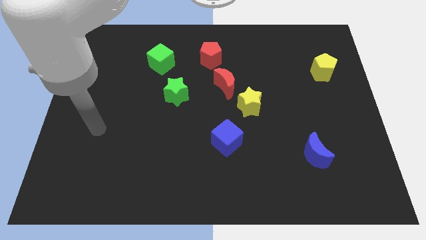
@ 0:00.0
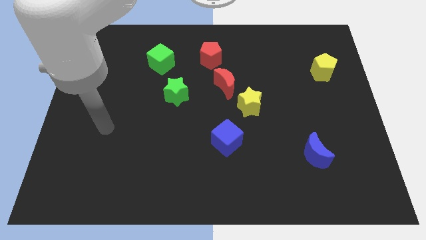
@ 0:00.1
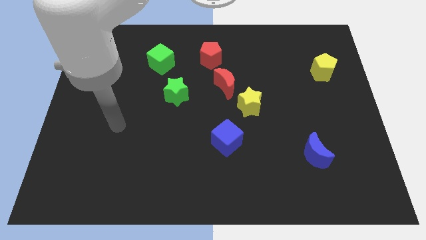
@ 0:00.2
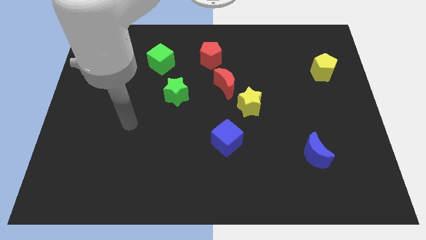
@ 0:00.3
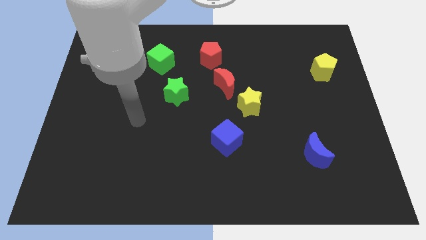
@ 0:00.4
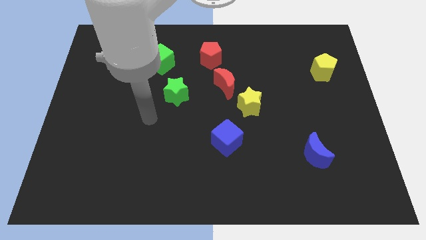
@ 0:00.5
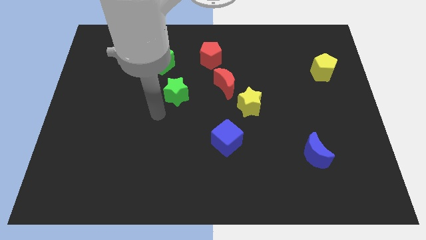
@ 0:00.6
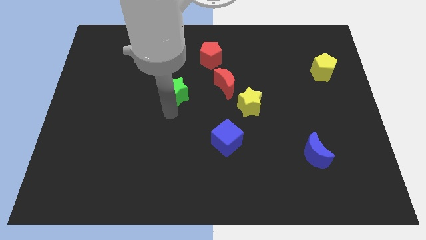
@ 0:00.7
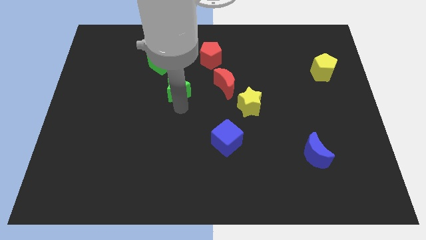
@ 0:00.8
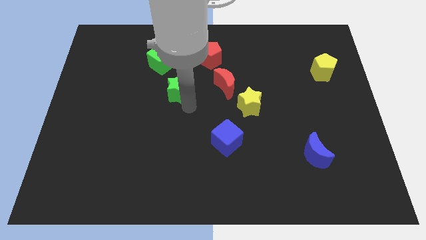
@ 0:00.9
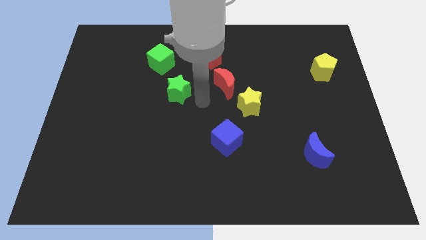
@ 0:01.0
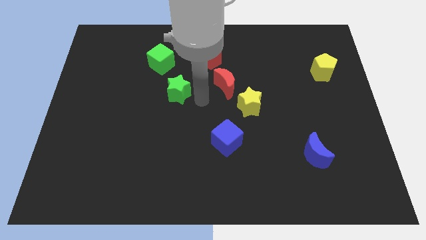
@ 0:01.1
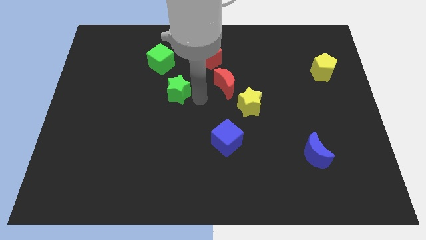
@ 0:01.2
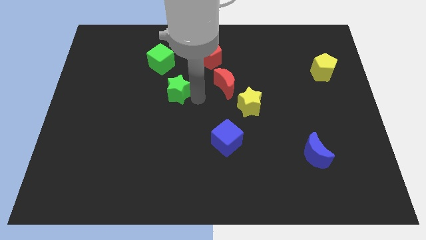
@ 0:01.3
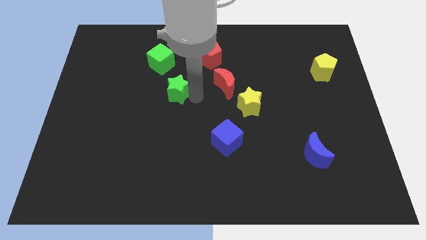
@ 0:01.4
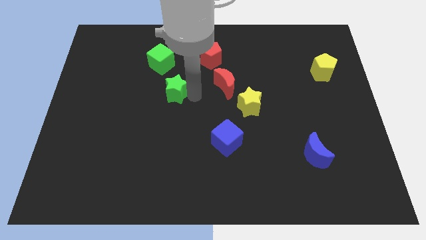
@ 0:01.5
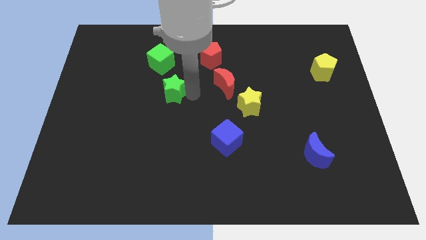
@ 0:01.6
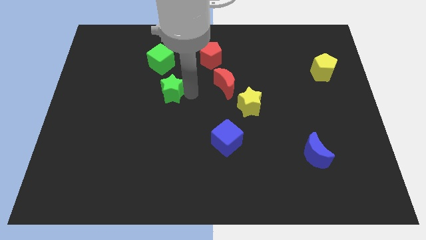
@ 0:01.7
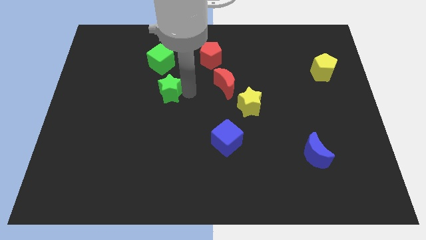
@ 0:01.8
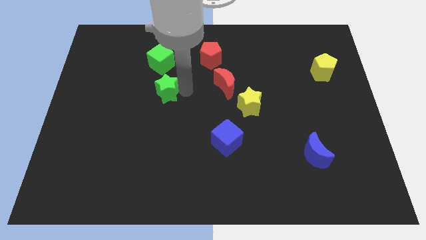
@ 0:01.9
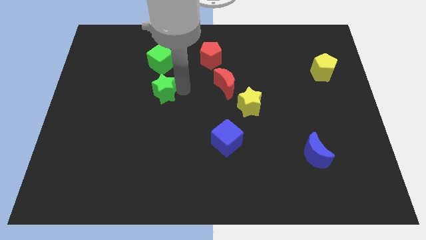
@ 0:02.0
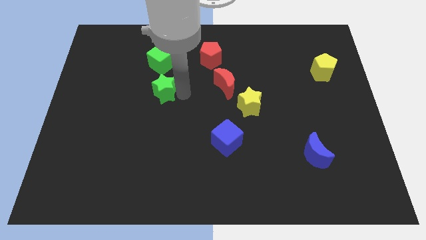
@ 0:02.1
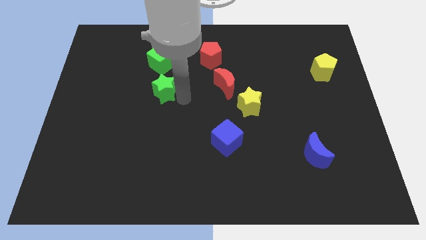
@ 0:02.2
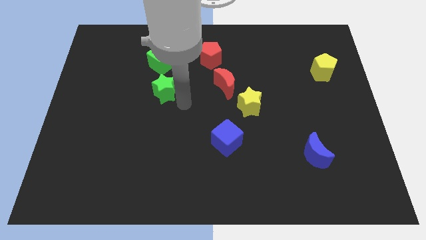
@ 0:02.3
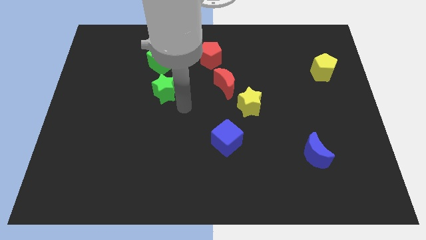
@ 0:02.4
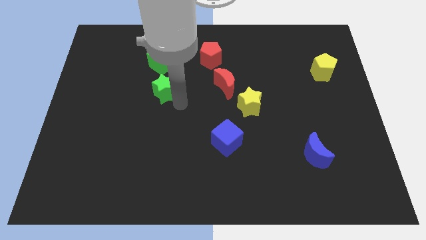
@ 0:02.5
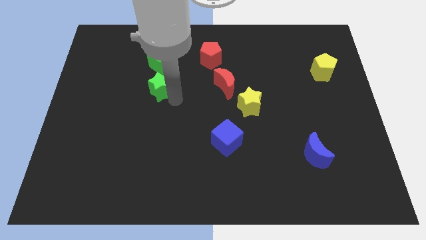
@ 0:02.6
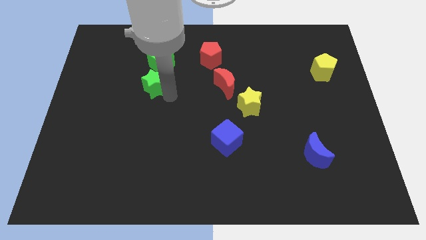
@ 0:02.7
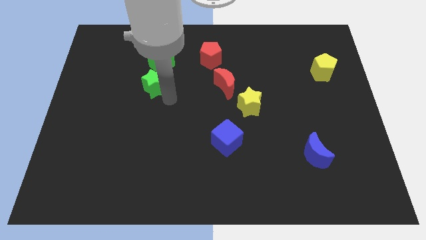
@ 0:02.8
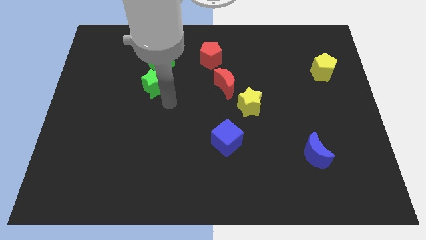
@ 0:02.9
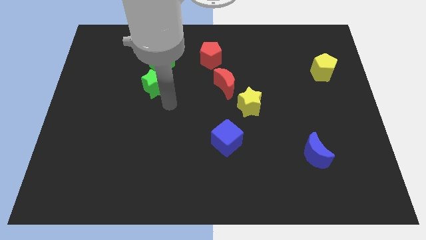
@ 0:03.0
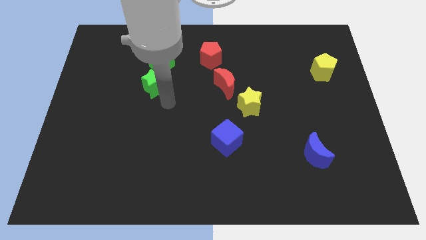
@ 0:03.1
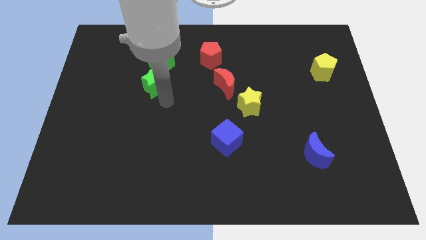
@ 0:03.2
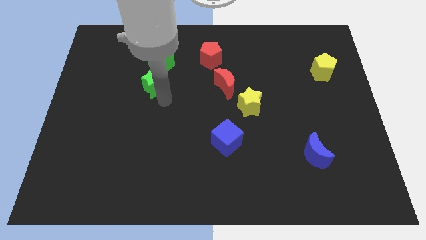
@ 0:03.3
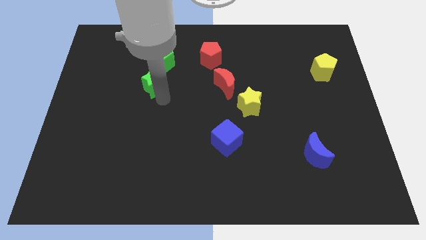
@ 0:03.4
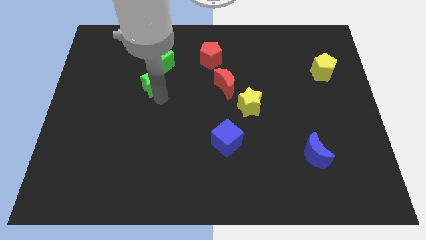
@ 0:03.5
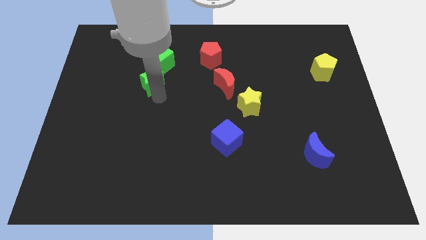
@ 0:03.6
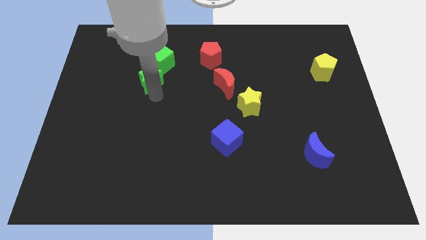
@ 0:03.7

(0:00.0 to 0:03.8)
slightly push the green star upwards and to the left

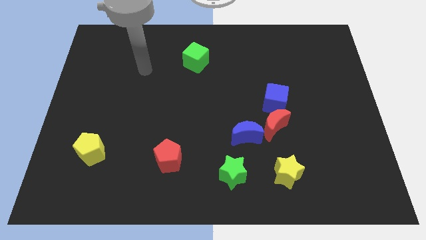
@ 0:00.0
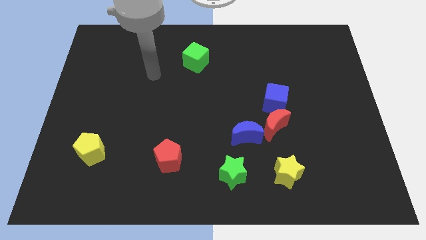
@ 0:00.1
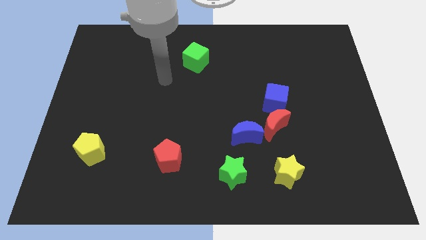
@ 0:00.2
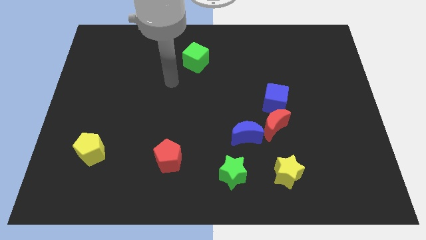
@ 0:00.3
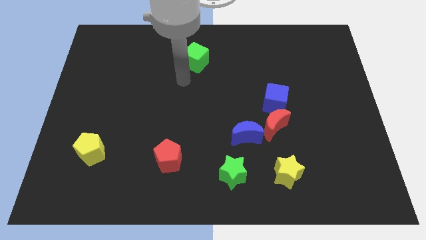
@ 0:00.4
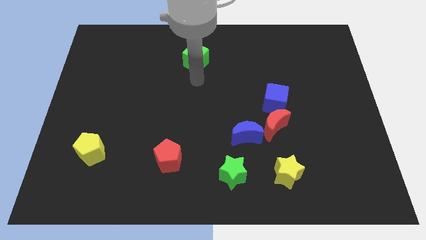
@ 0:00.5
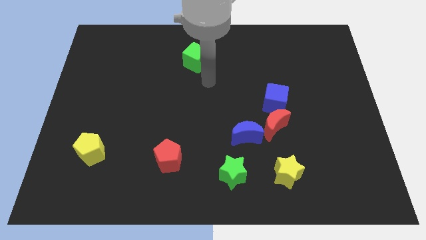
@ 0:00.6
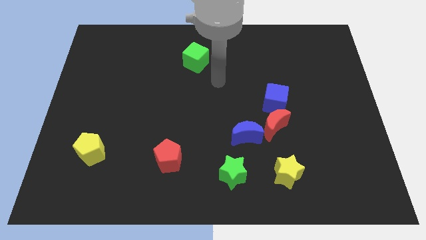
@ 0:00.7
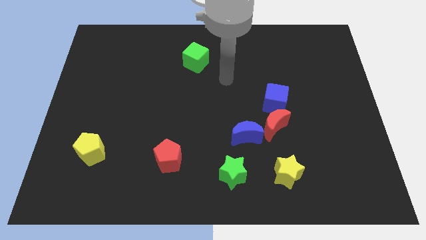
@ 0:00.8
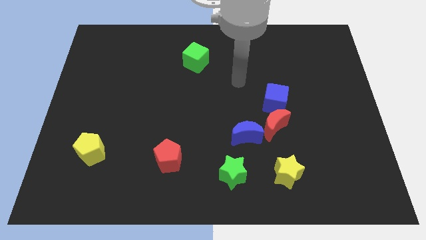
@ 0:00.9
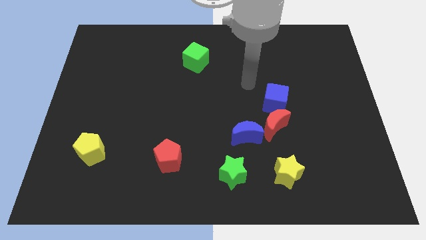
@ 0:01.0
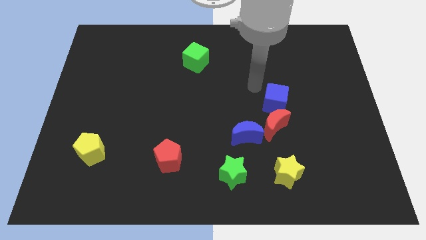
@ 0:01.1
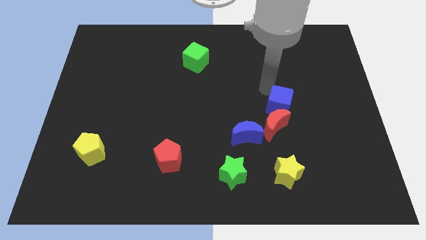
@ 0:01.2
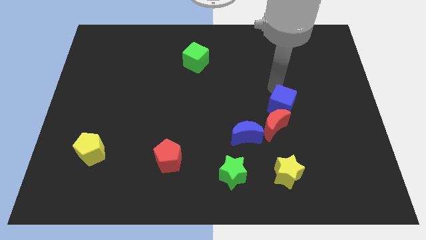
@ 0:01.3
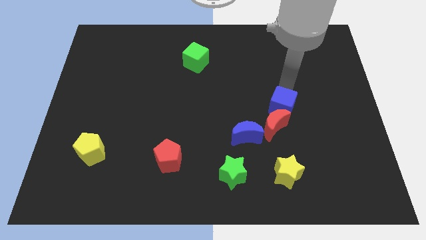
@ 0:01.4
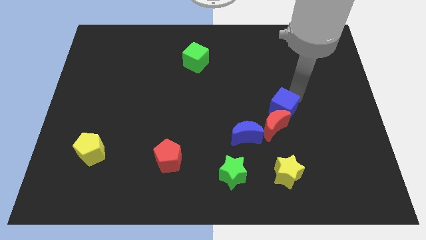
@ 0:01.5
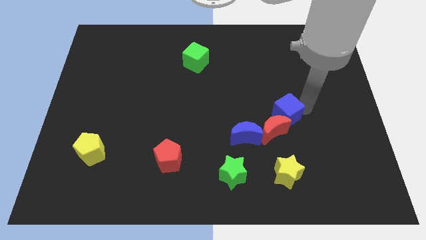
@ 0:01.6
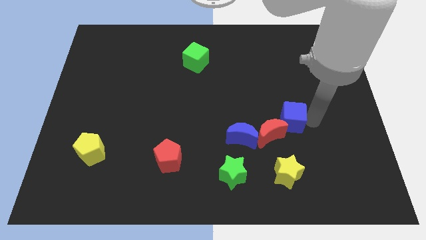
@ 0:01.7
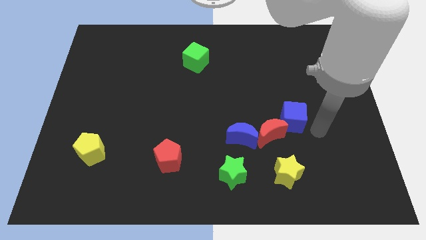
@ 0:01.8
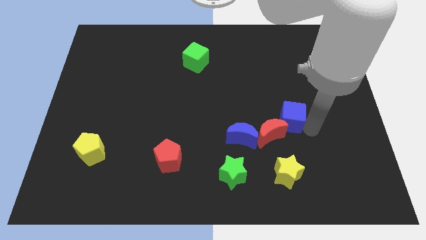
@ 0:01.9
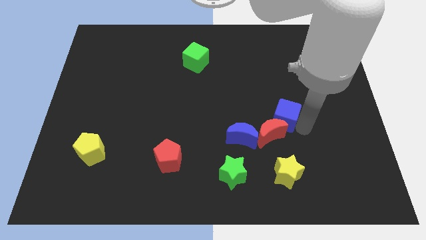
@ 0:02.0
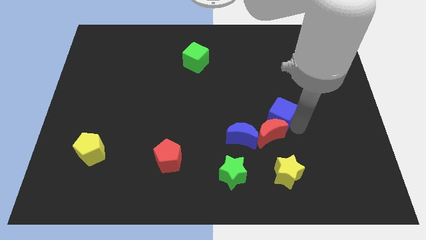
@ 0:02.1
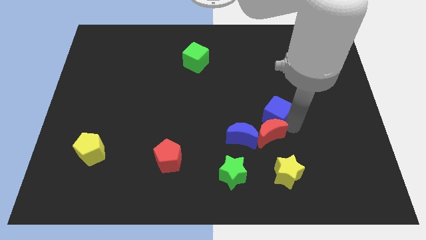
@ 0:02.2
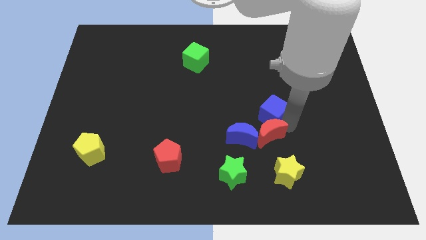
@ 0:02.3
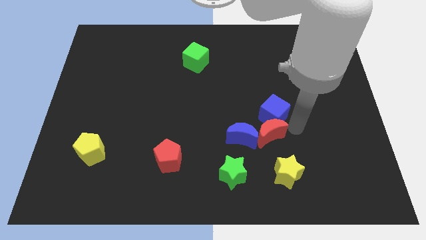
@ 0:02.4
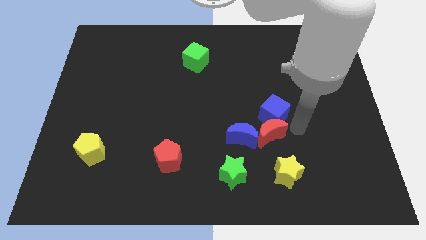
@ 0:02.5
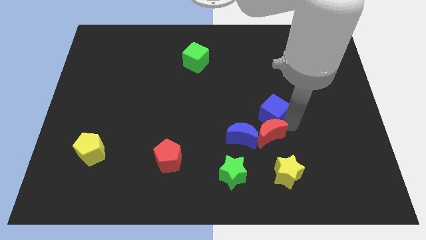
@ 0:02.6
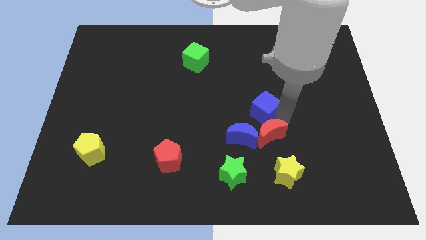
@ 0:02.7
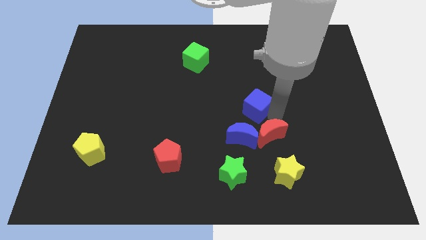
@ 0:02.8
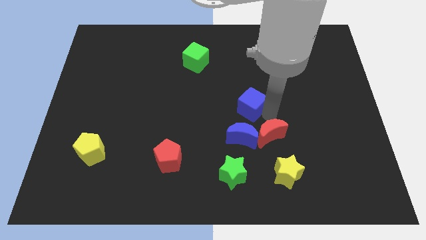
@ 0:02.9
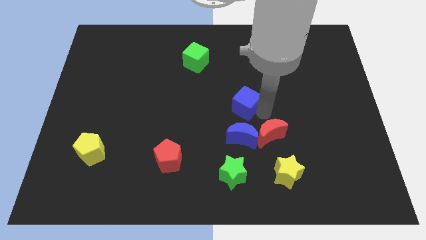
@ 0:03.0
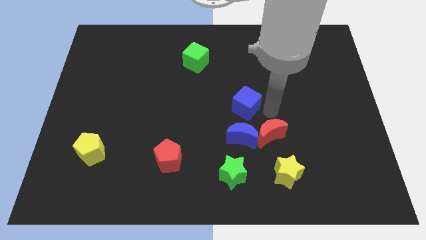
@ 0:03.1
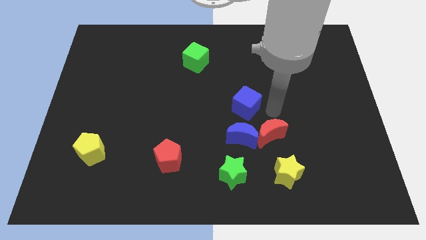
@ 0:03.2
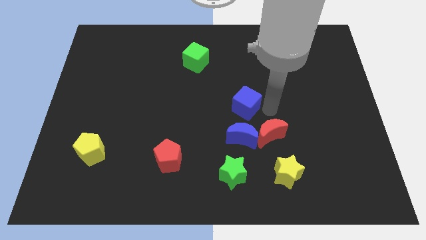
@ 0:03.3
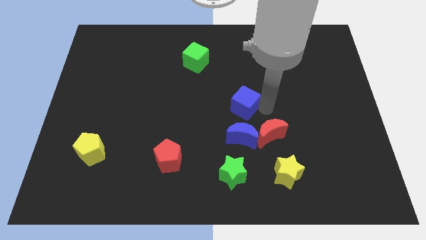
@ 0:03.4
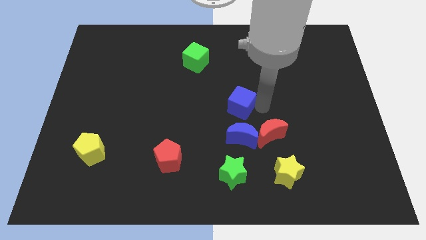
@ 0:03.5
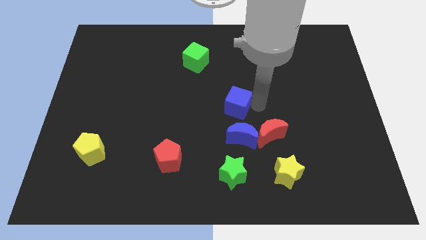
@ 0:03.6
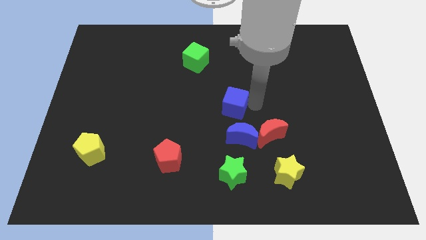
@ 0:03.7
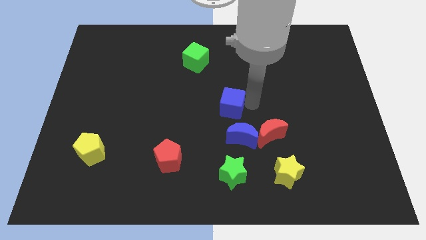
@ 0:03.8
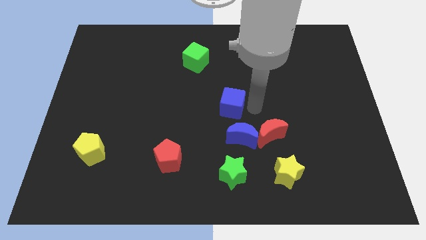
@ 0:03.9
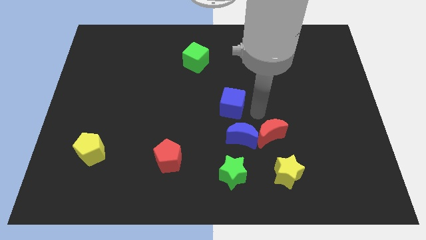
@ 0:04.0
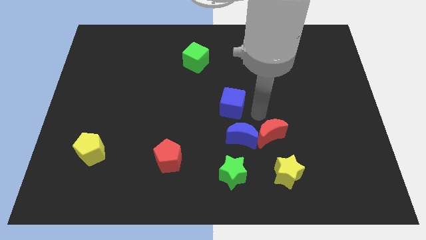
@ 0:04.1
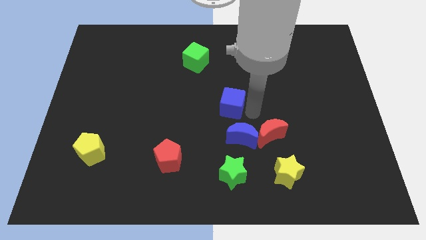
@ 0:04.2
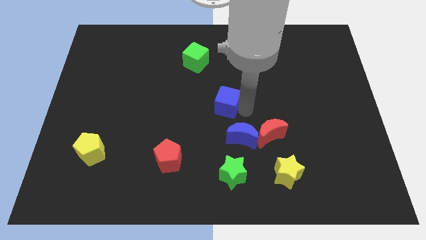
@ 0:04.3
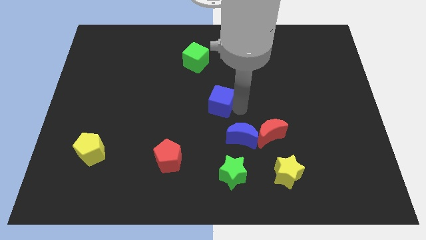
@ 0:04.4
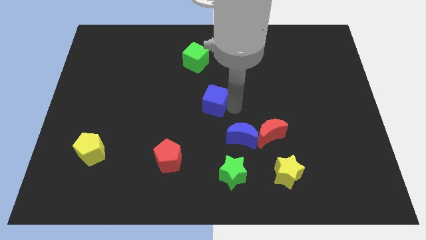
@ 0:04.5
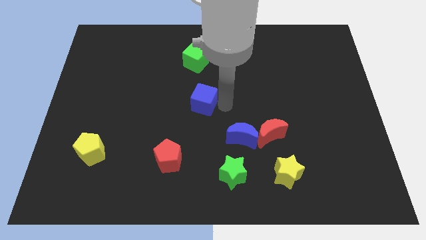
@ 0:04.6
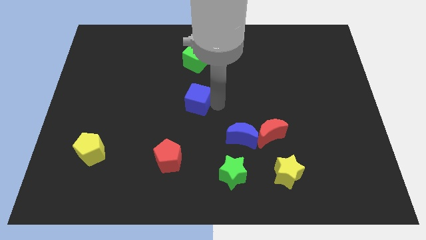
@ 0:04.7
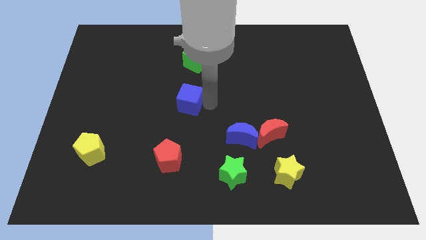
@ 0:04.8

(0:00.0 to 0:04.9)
move the blue cube left
